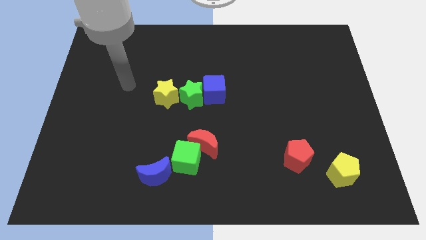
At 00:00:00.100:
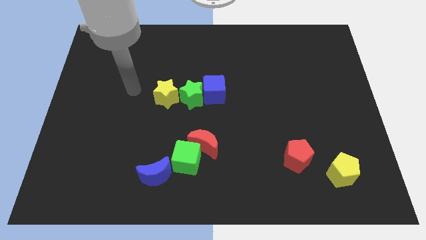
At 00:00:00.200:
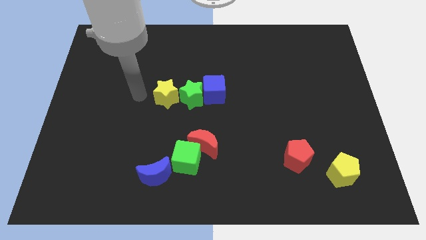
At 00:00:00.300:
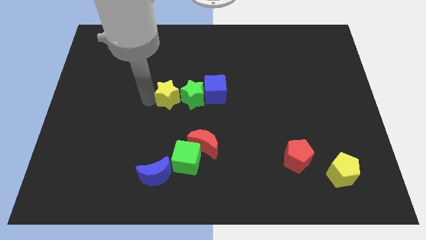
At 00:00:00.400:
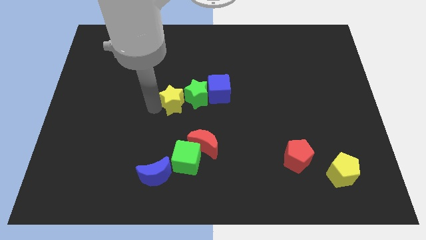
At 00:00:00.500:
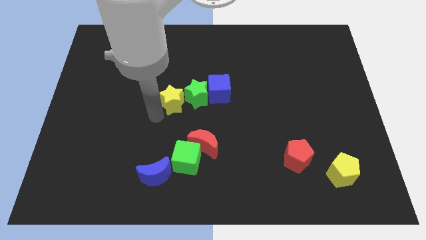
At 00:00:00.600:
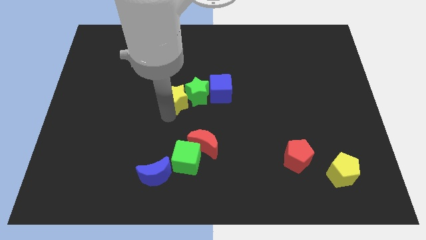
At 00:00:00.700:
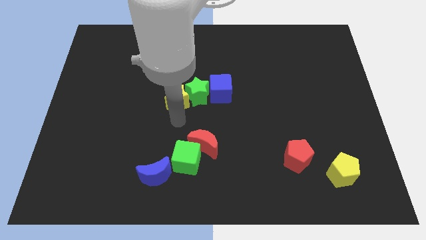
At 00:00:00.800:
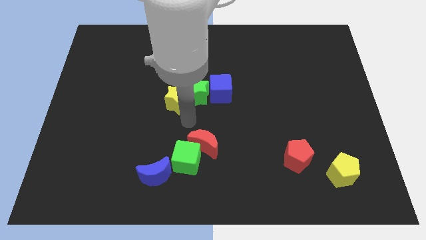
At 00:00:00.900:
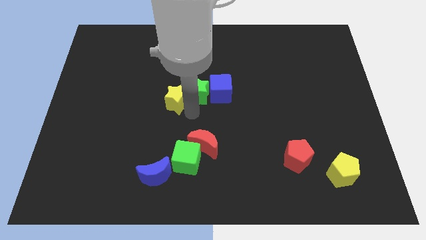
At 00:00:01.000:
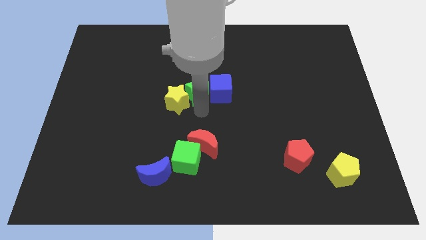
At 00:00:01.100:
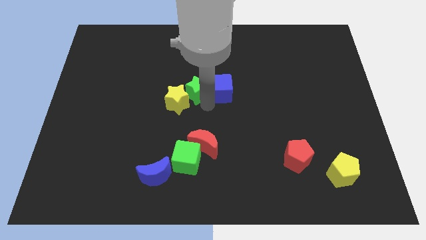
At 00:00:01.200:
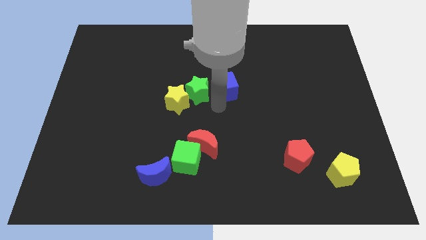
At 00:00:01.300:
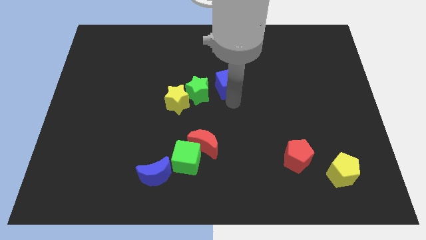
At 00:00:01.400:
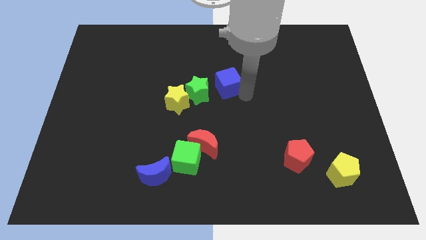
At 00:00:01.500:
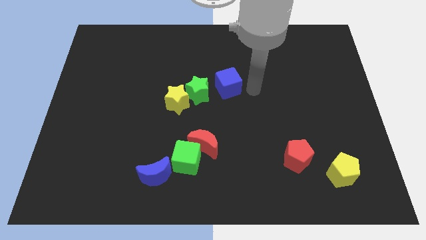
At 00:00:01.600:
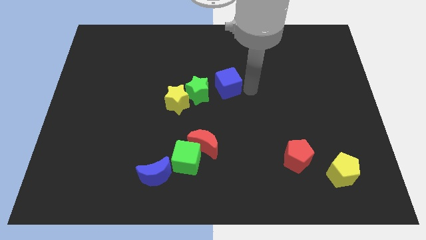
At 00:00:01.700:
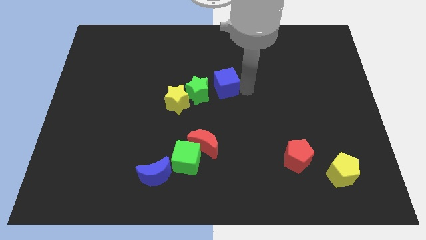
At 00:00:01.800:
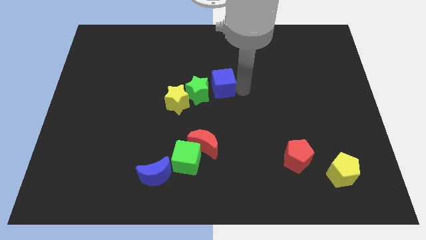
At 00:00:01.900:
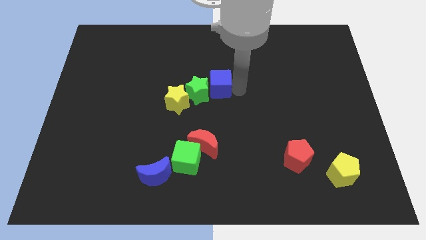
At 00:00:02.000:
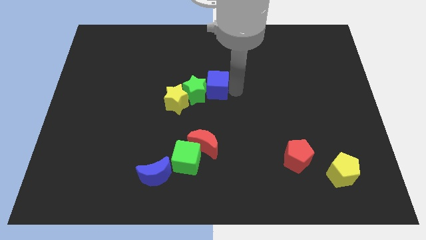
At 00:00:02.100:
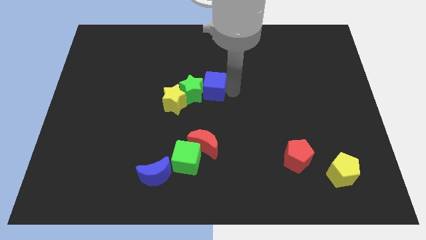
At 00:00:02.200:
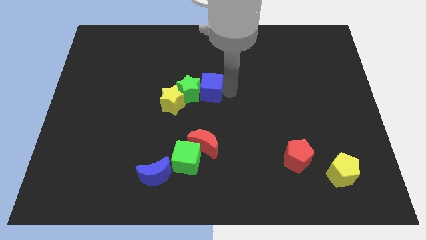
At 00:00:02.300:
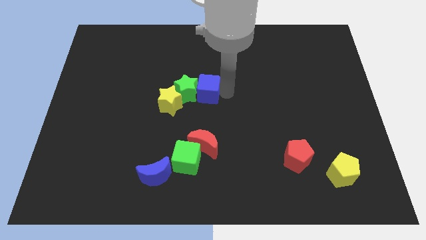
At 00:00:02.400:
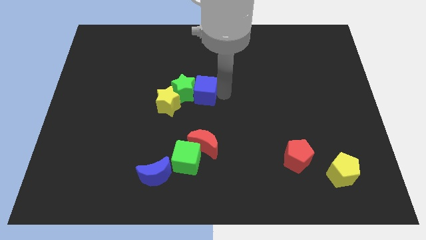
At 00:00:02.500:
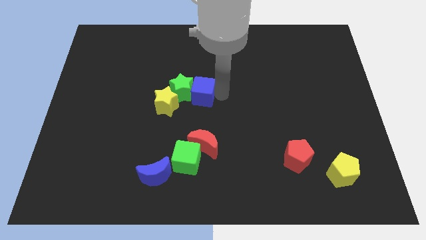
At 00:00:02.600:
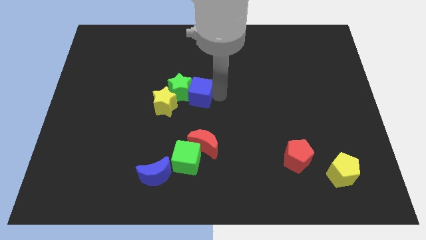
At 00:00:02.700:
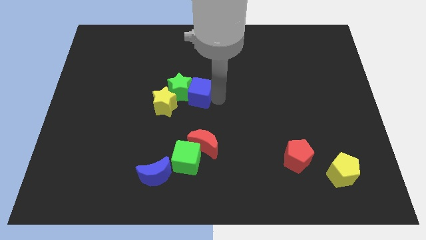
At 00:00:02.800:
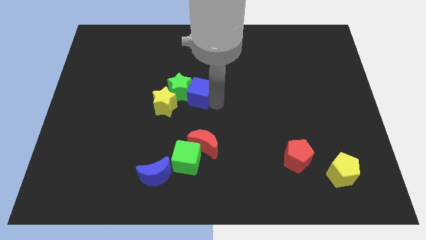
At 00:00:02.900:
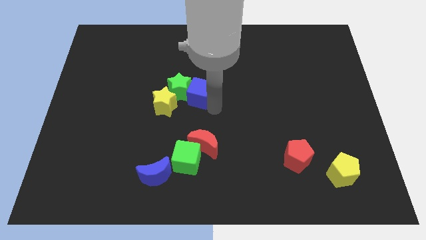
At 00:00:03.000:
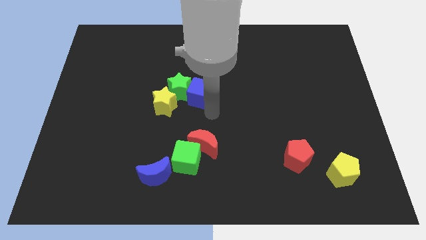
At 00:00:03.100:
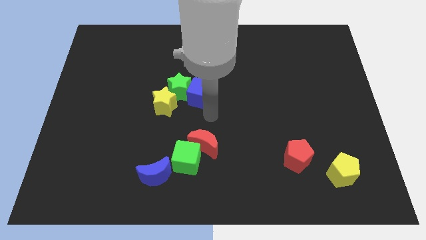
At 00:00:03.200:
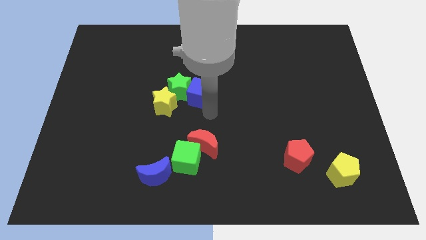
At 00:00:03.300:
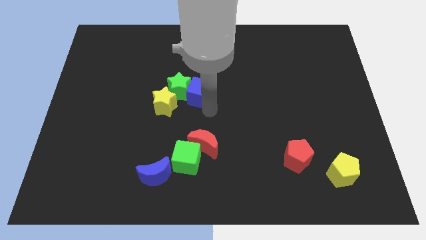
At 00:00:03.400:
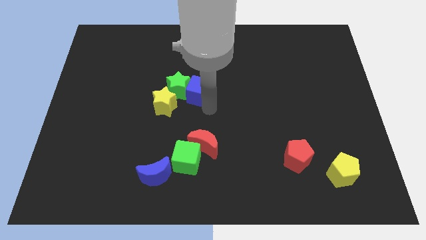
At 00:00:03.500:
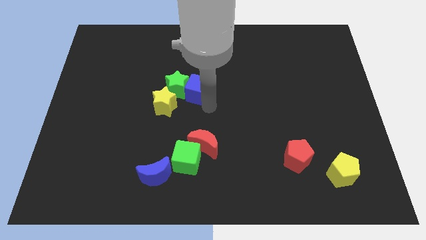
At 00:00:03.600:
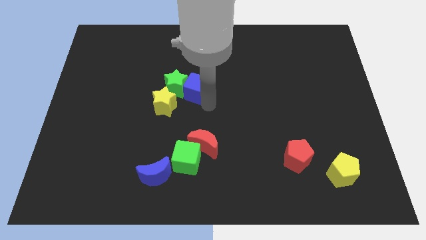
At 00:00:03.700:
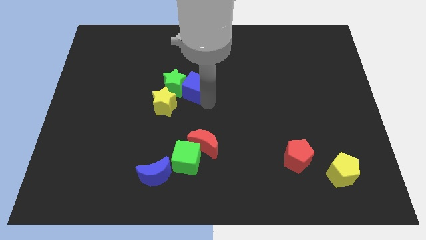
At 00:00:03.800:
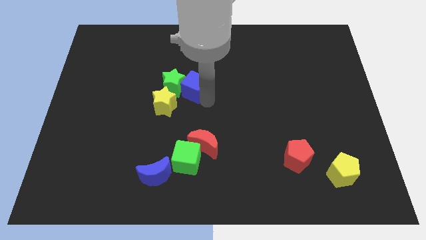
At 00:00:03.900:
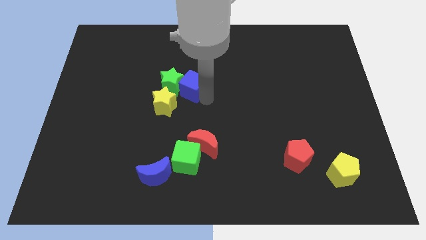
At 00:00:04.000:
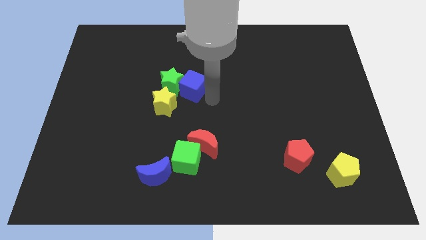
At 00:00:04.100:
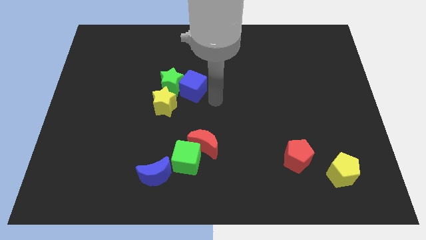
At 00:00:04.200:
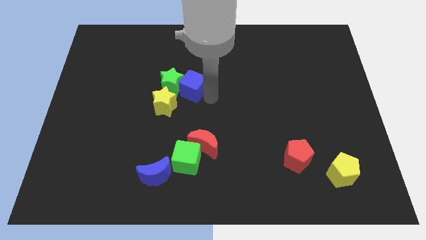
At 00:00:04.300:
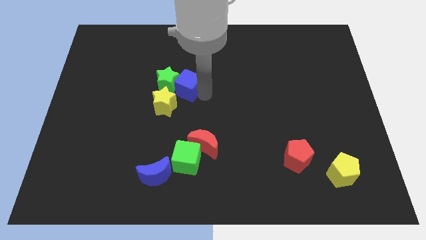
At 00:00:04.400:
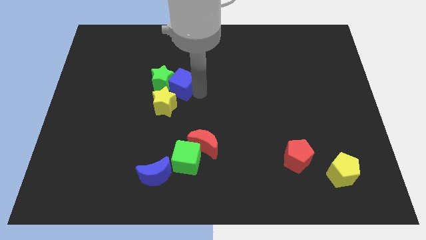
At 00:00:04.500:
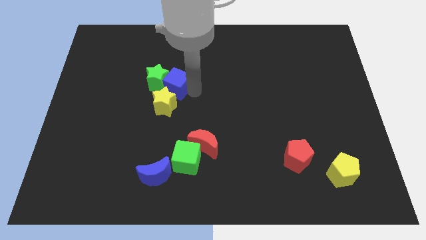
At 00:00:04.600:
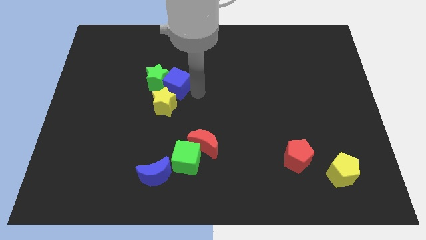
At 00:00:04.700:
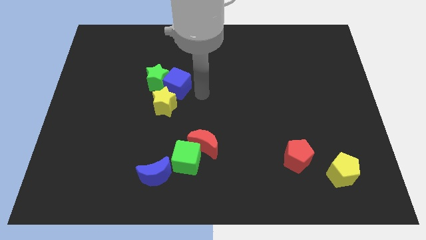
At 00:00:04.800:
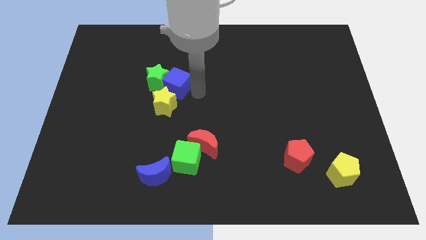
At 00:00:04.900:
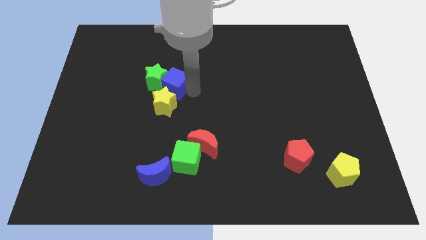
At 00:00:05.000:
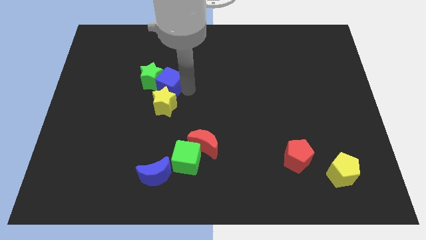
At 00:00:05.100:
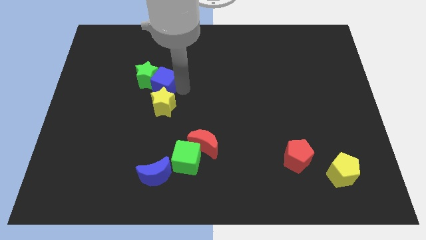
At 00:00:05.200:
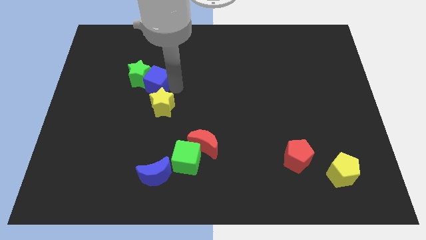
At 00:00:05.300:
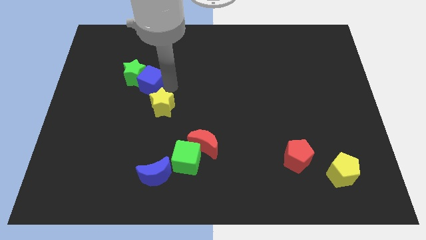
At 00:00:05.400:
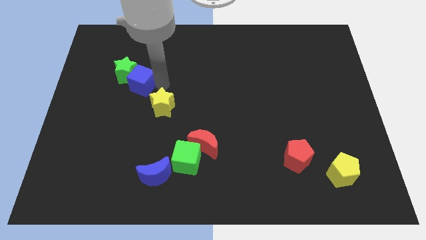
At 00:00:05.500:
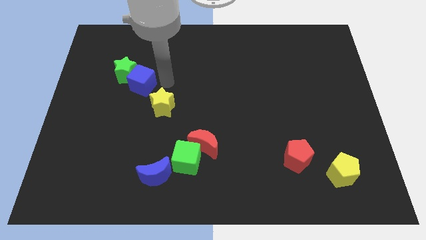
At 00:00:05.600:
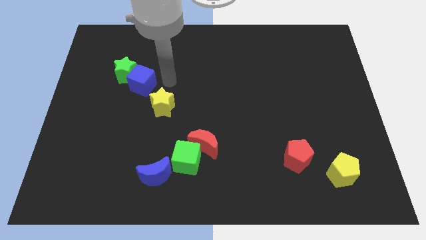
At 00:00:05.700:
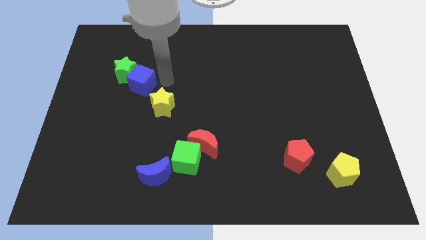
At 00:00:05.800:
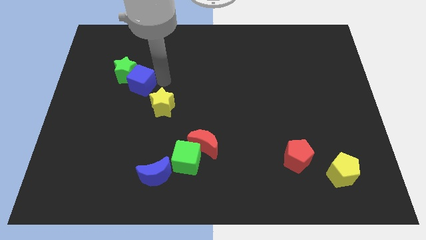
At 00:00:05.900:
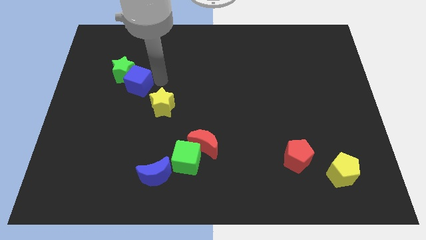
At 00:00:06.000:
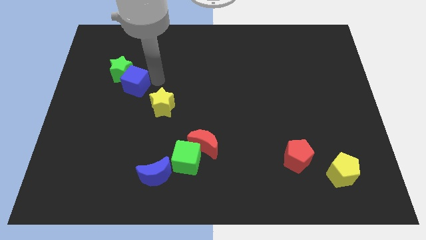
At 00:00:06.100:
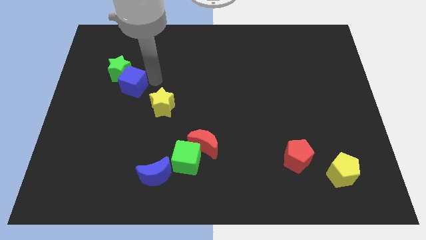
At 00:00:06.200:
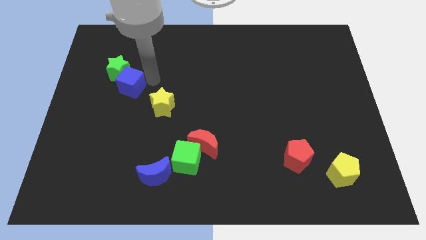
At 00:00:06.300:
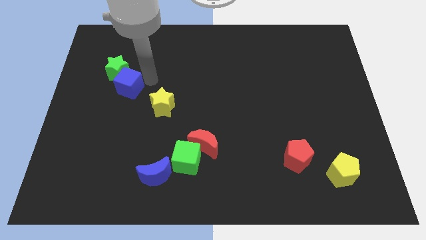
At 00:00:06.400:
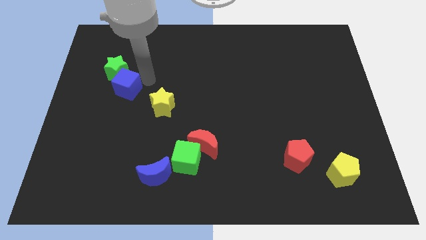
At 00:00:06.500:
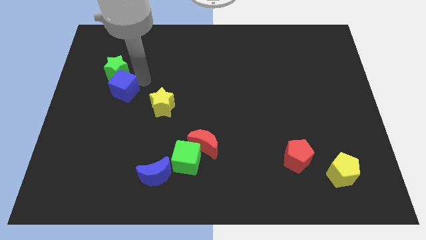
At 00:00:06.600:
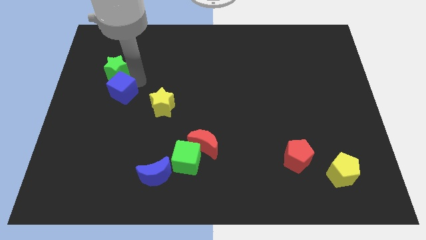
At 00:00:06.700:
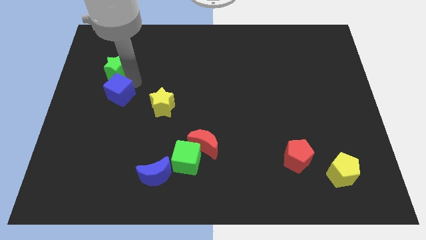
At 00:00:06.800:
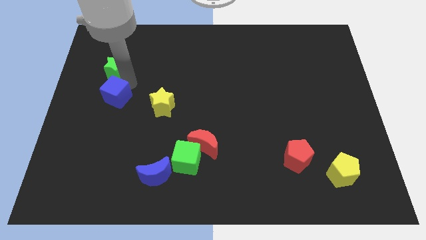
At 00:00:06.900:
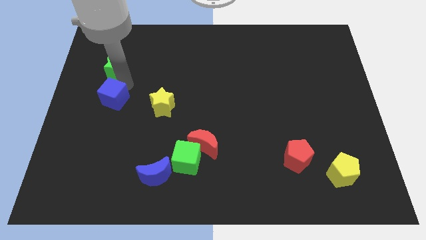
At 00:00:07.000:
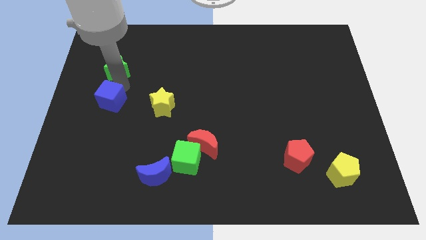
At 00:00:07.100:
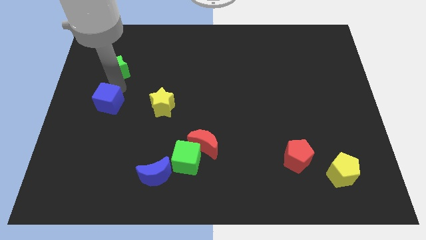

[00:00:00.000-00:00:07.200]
push the blue cube to the center left
